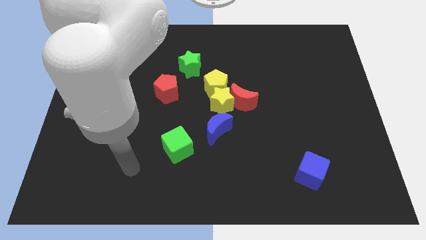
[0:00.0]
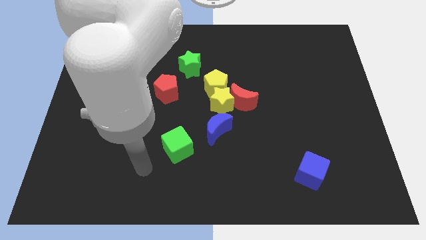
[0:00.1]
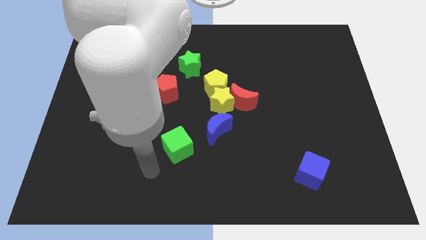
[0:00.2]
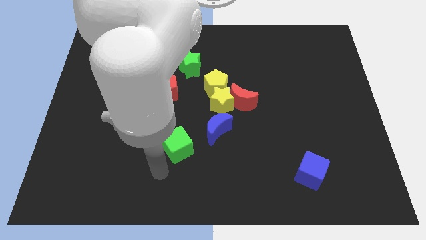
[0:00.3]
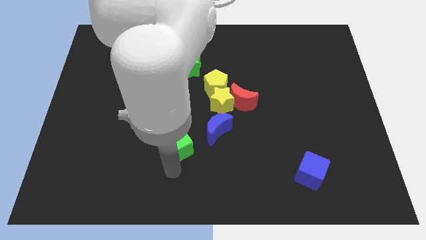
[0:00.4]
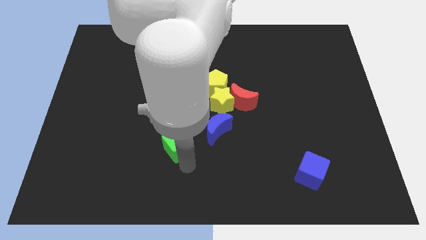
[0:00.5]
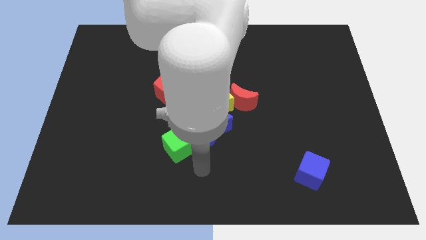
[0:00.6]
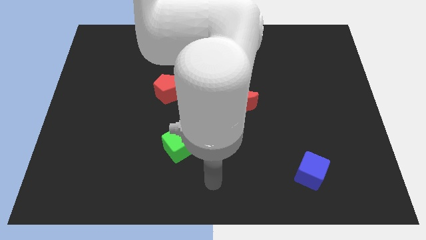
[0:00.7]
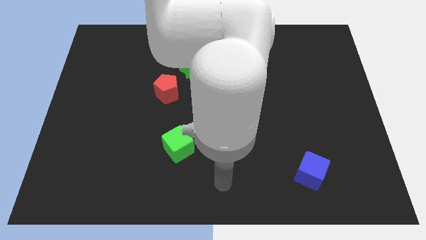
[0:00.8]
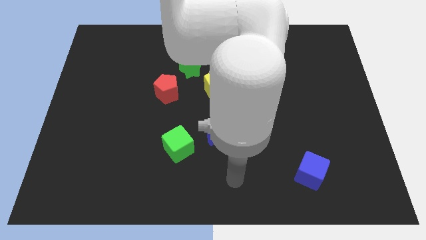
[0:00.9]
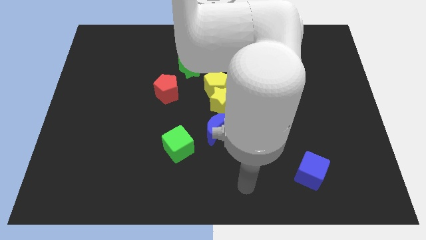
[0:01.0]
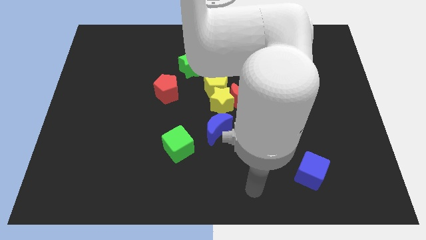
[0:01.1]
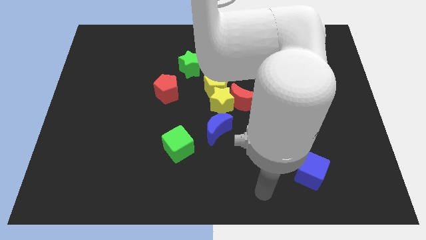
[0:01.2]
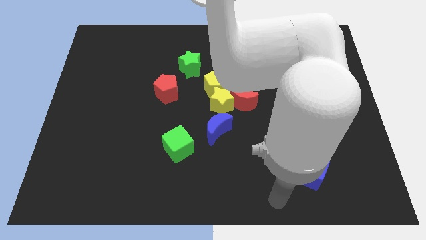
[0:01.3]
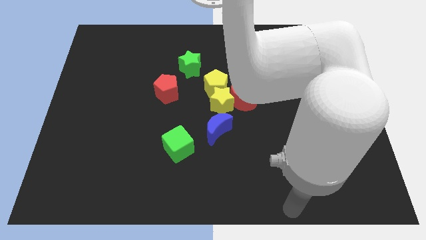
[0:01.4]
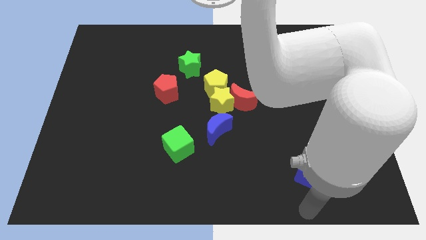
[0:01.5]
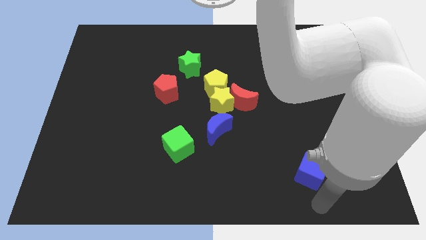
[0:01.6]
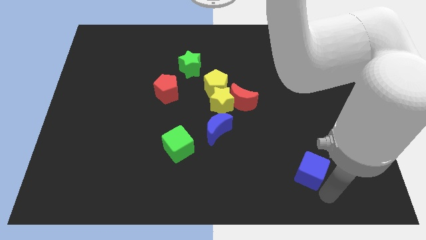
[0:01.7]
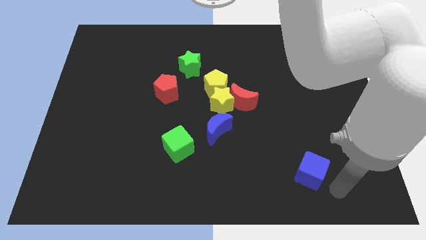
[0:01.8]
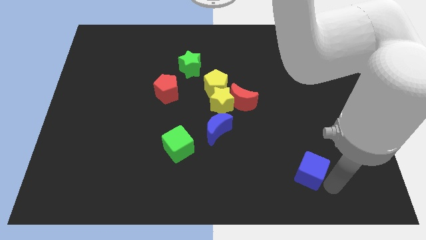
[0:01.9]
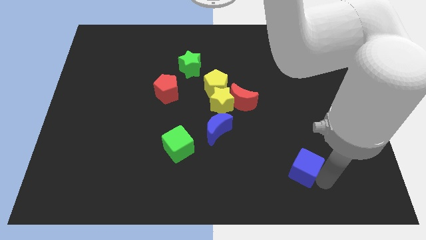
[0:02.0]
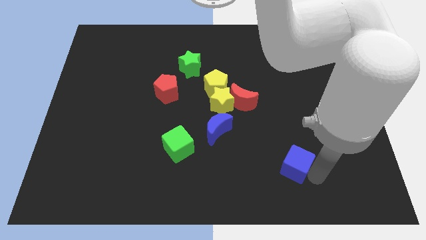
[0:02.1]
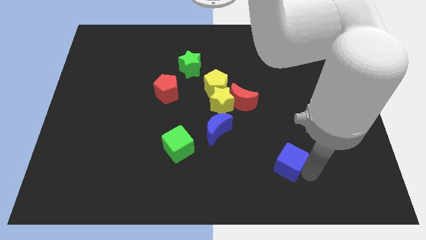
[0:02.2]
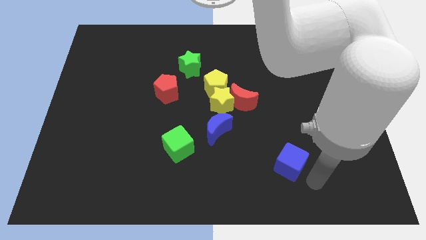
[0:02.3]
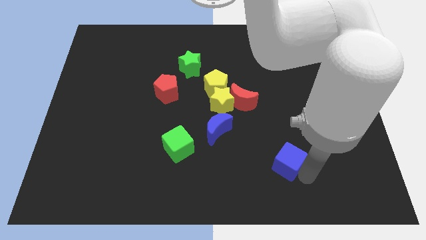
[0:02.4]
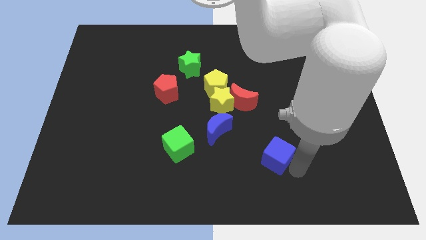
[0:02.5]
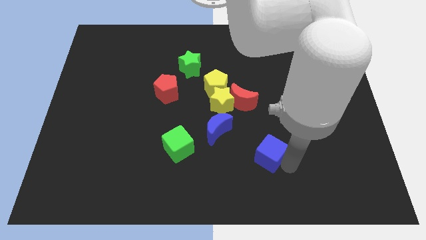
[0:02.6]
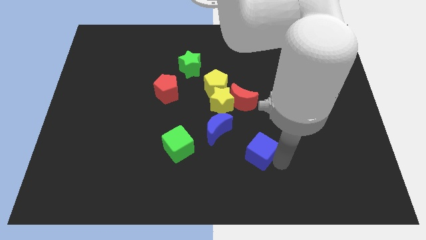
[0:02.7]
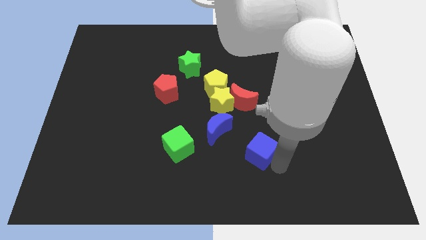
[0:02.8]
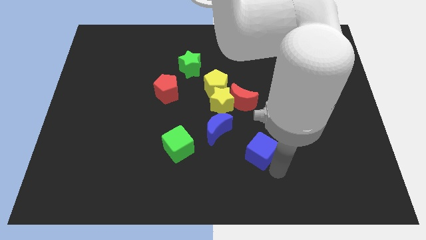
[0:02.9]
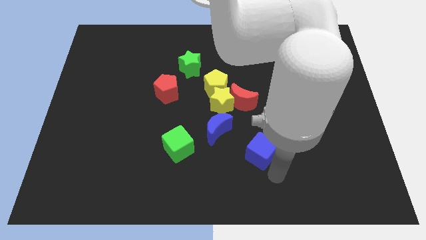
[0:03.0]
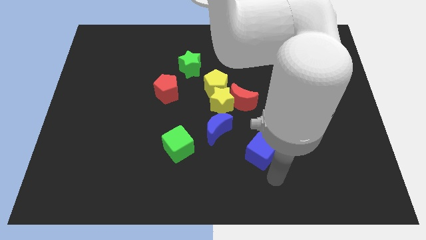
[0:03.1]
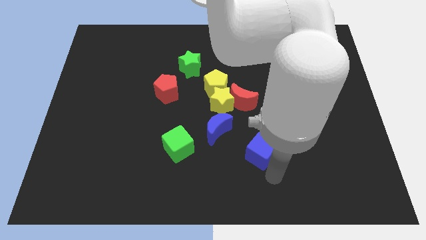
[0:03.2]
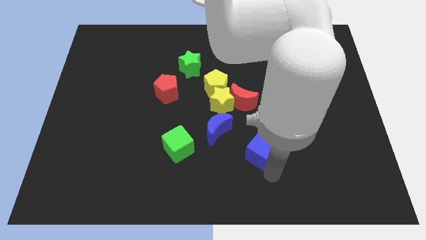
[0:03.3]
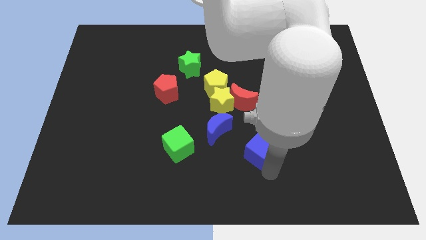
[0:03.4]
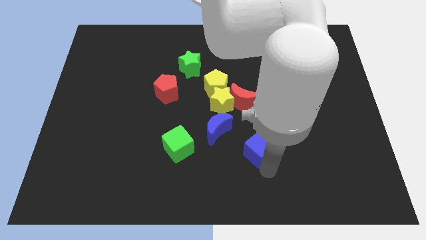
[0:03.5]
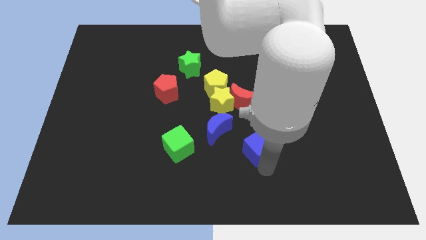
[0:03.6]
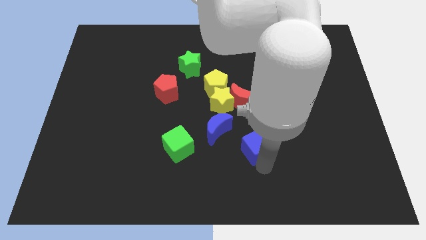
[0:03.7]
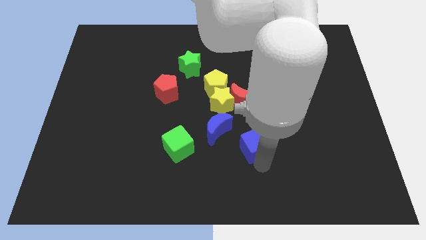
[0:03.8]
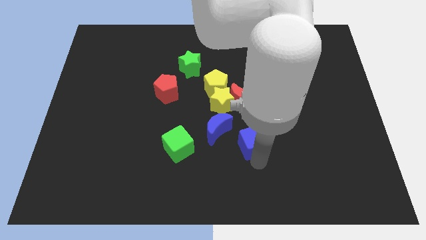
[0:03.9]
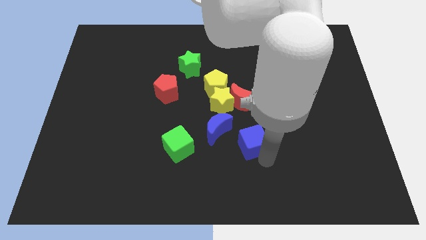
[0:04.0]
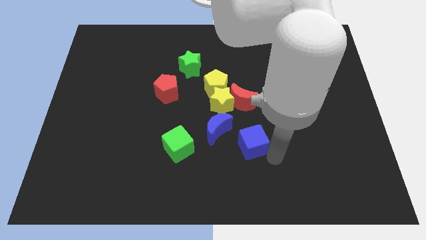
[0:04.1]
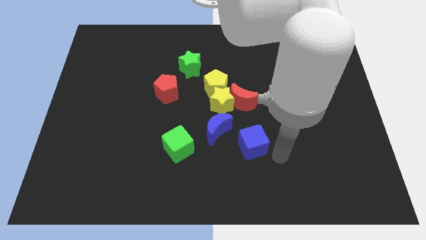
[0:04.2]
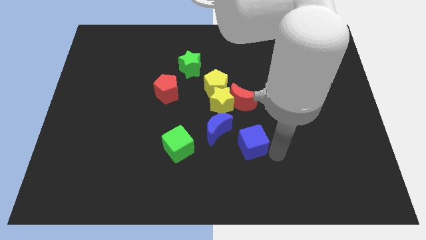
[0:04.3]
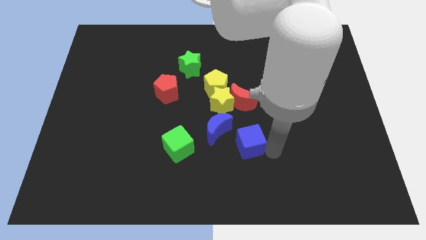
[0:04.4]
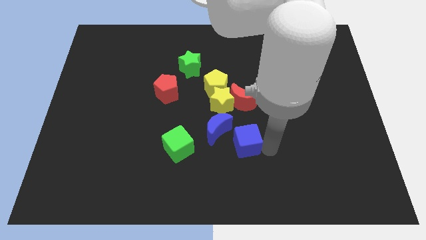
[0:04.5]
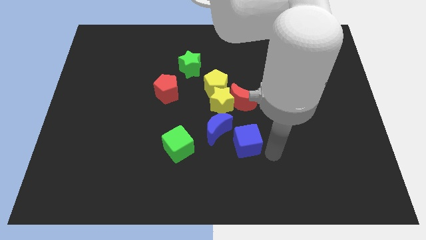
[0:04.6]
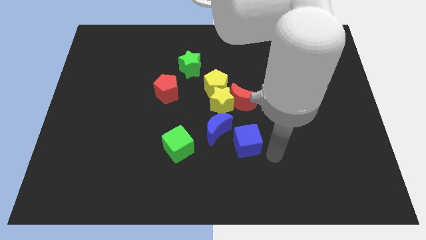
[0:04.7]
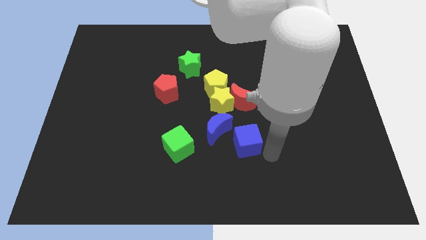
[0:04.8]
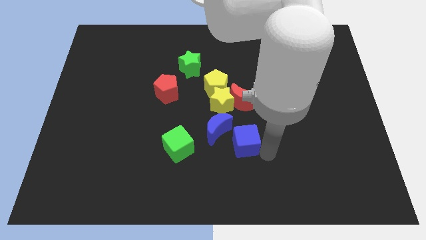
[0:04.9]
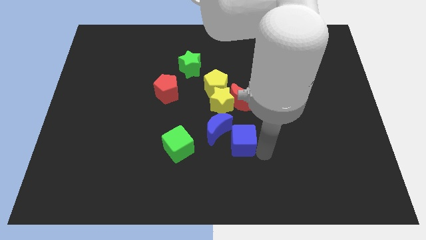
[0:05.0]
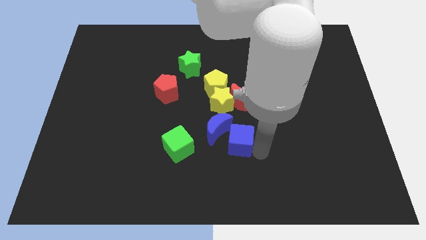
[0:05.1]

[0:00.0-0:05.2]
move the blue cube next to the blue moon

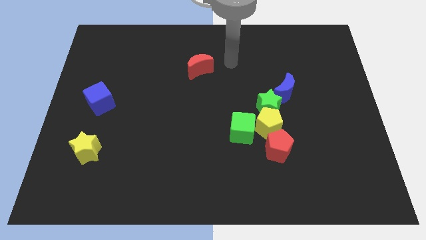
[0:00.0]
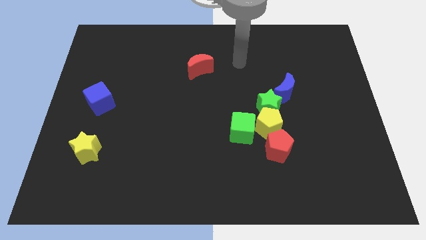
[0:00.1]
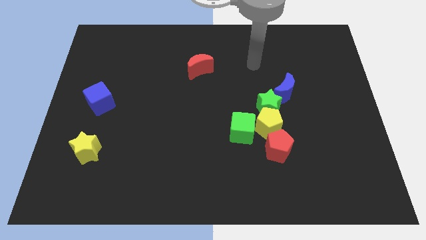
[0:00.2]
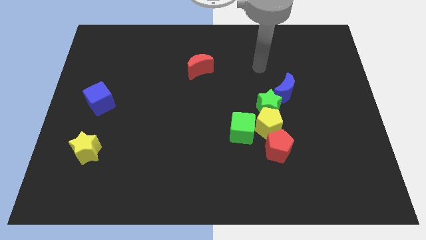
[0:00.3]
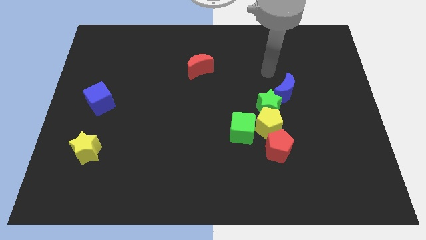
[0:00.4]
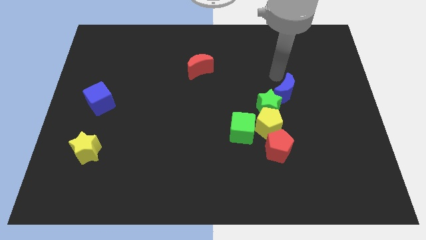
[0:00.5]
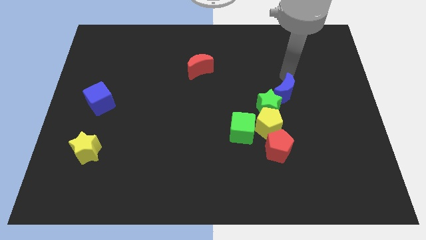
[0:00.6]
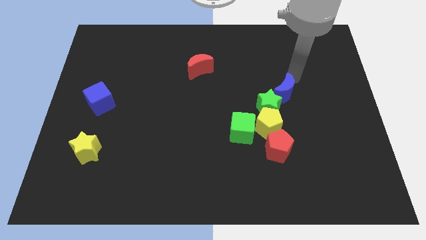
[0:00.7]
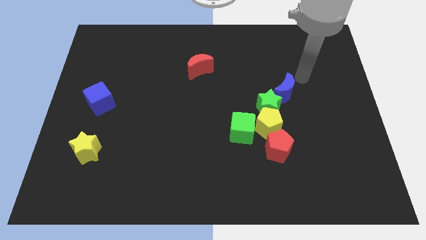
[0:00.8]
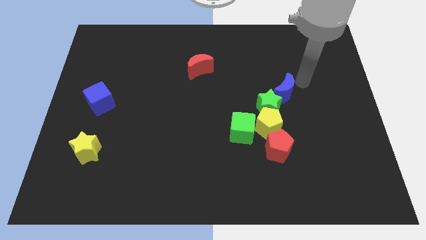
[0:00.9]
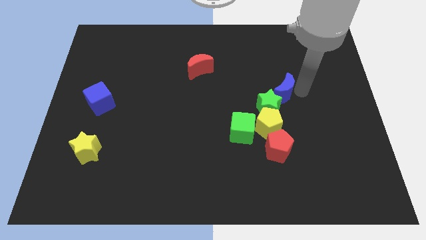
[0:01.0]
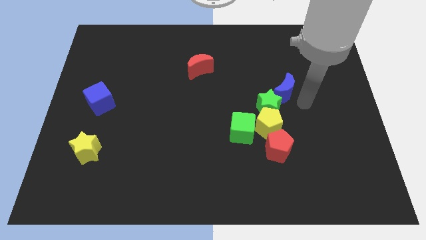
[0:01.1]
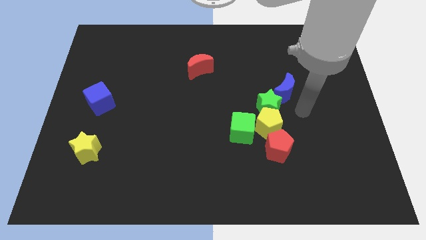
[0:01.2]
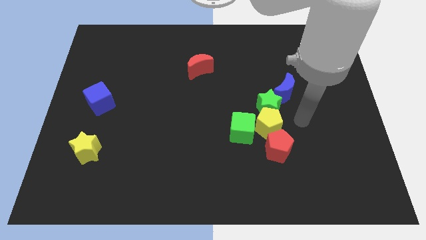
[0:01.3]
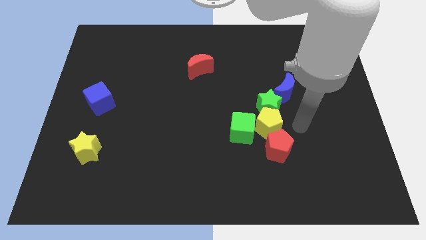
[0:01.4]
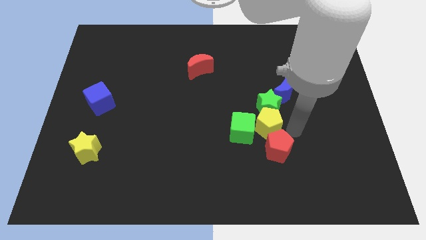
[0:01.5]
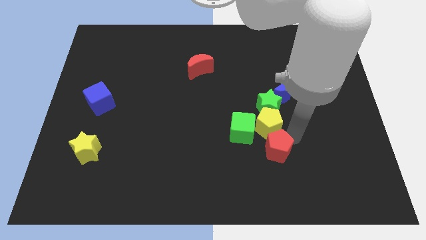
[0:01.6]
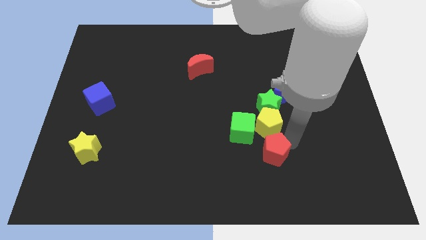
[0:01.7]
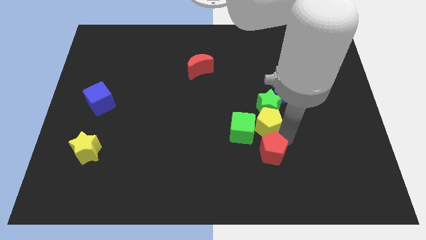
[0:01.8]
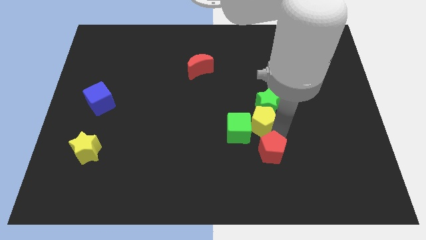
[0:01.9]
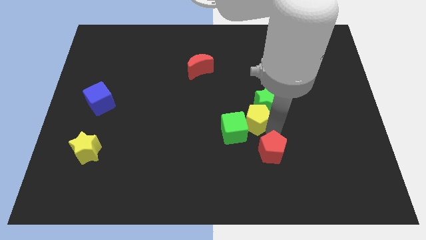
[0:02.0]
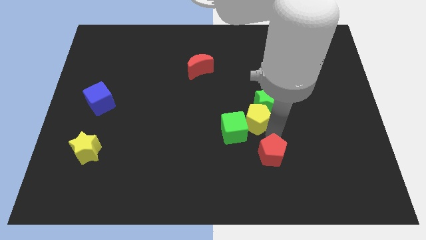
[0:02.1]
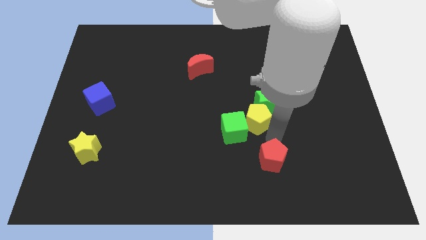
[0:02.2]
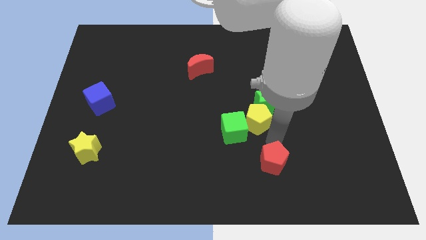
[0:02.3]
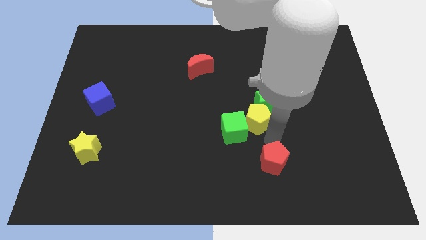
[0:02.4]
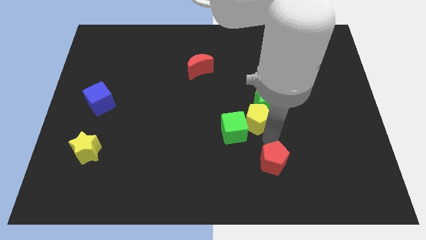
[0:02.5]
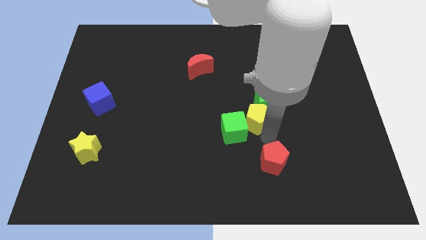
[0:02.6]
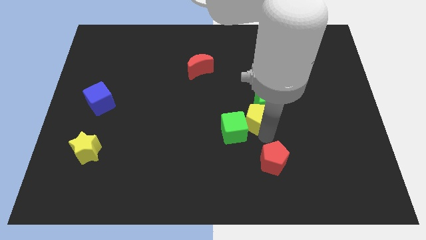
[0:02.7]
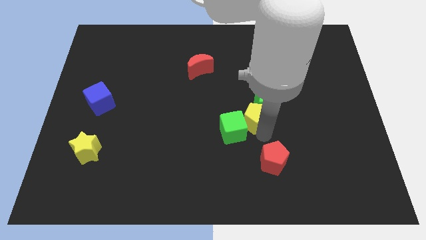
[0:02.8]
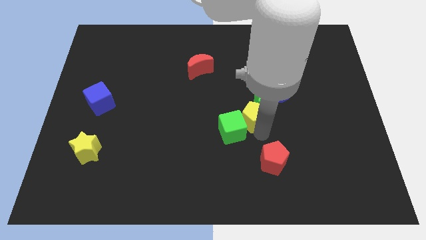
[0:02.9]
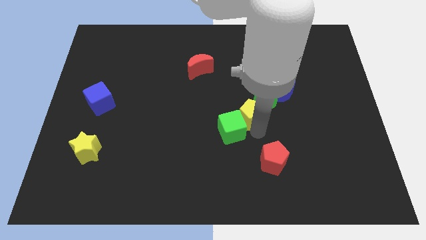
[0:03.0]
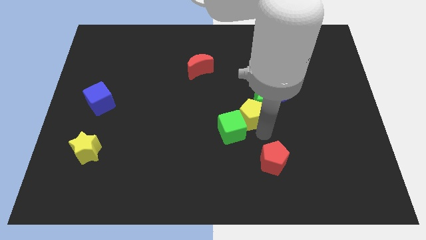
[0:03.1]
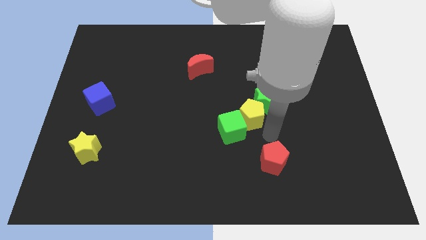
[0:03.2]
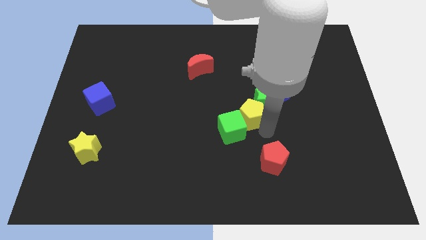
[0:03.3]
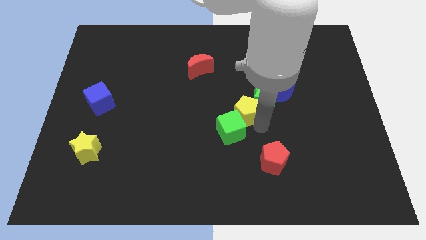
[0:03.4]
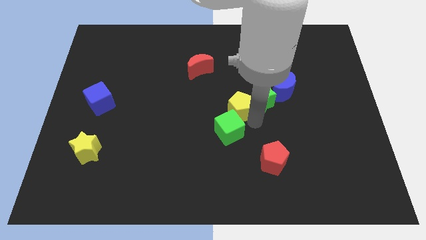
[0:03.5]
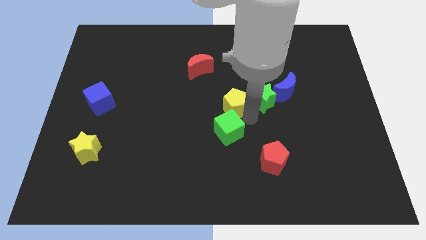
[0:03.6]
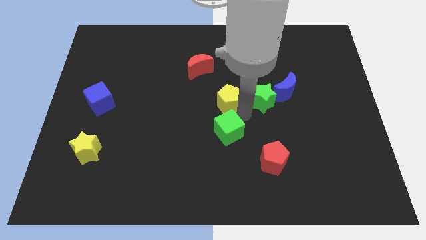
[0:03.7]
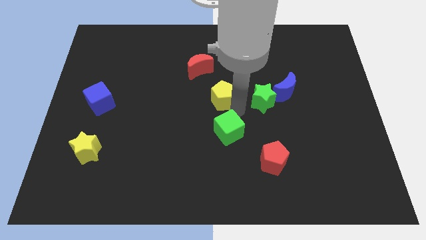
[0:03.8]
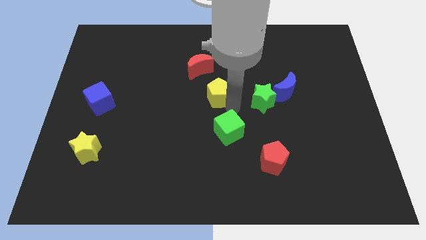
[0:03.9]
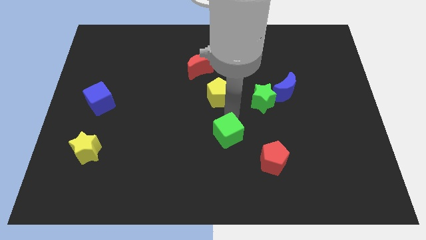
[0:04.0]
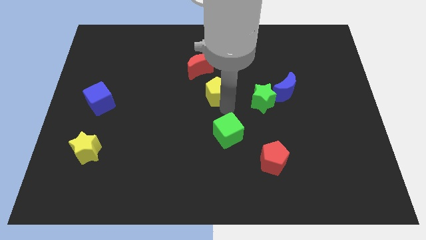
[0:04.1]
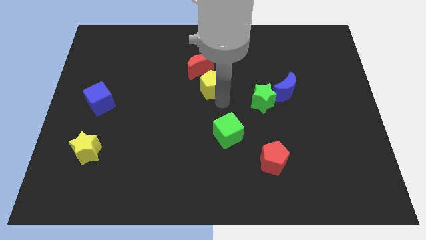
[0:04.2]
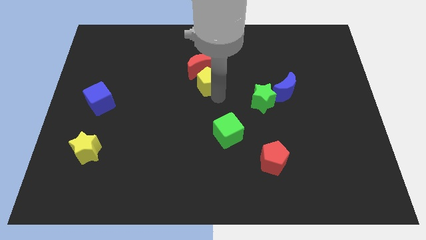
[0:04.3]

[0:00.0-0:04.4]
slide the yellow pentagon towards the red moon
